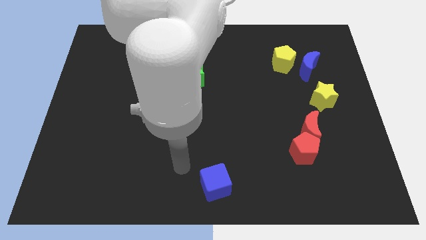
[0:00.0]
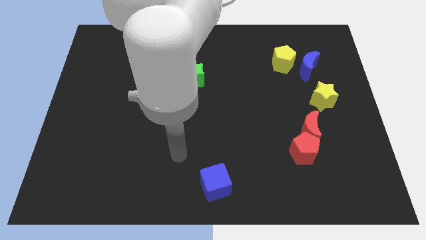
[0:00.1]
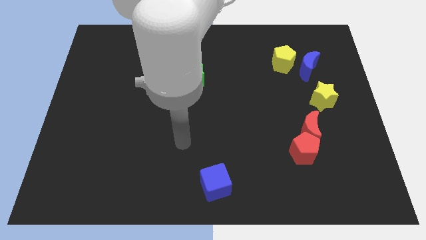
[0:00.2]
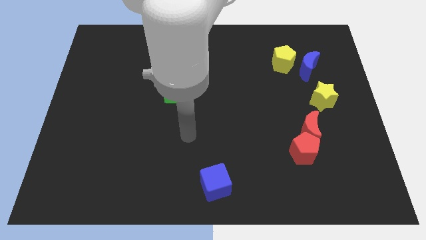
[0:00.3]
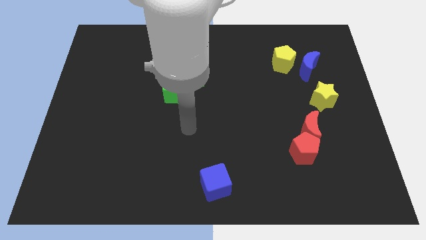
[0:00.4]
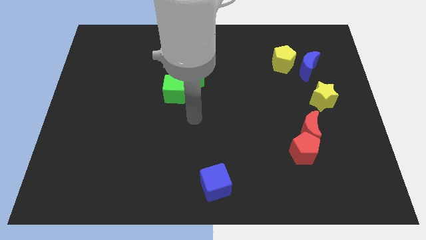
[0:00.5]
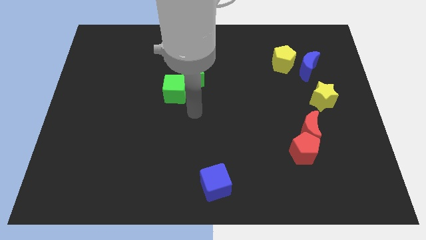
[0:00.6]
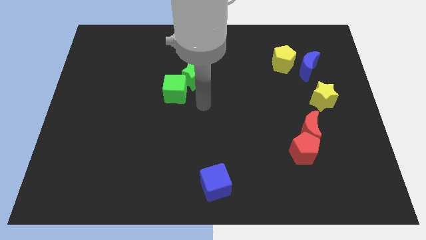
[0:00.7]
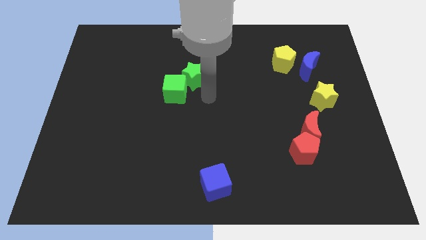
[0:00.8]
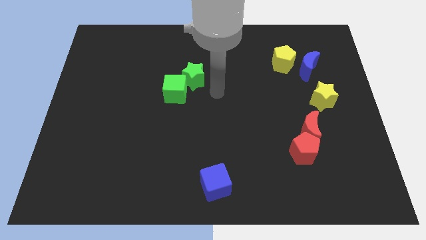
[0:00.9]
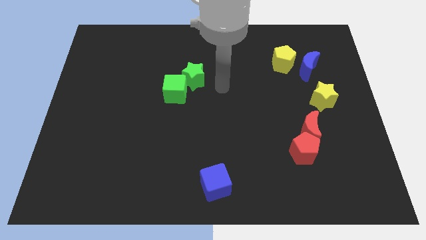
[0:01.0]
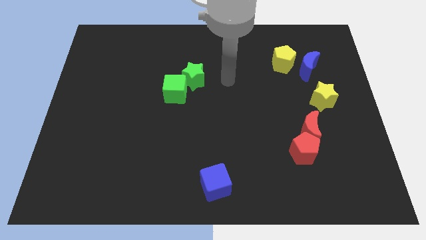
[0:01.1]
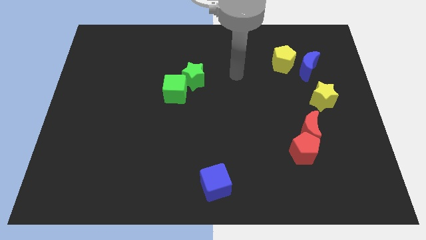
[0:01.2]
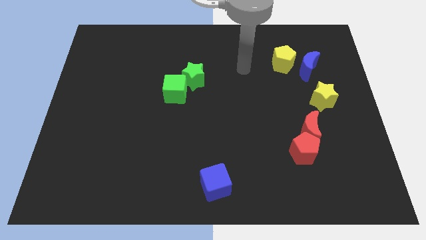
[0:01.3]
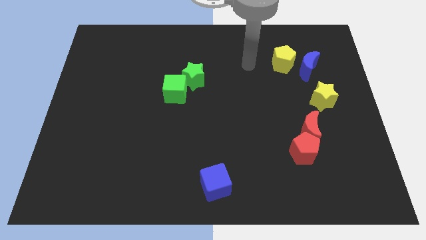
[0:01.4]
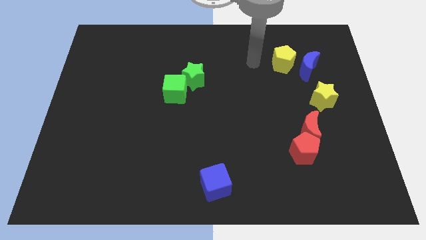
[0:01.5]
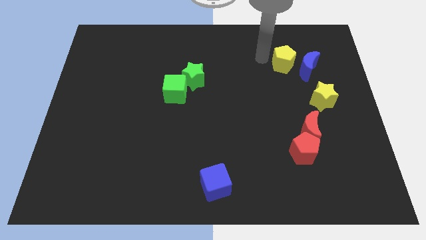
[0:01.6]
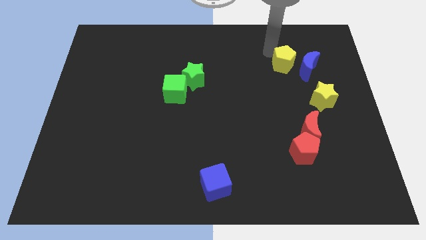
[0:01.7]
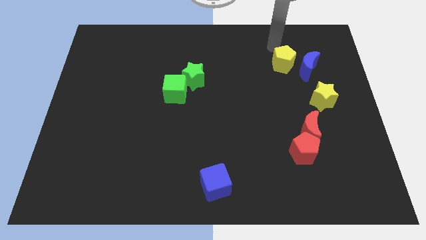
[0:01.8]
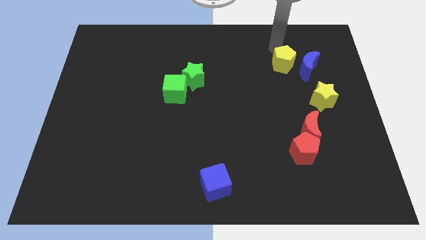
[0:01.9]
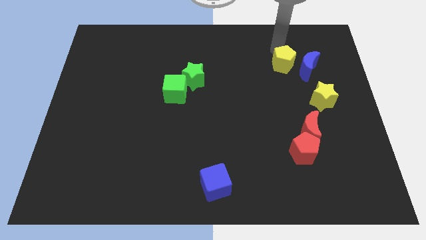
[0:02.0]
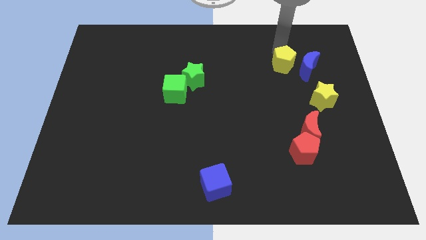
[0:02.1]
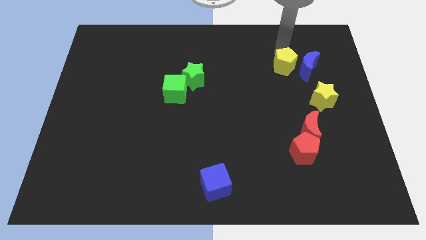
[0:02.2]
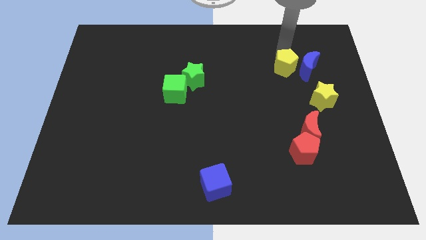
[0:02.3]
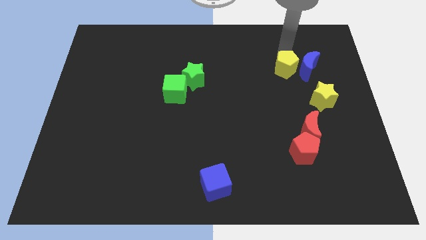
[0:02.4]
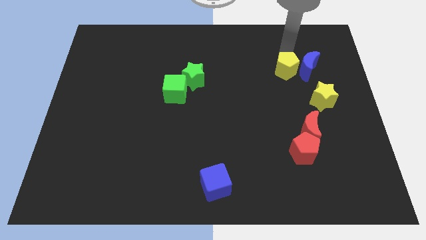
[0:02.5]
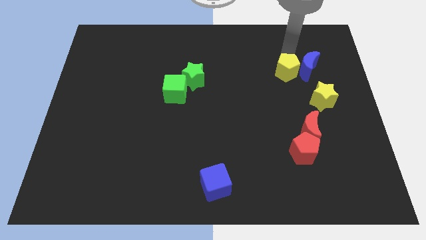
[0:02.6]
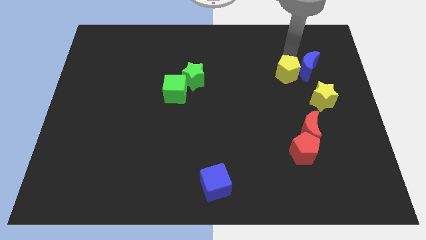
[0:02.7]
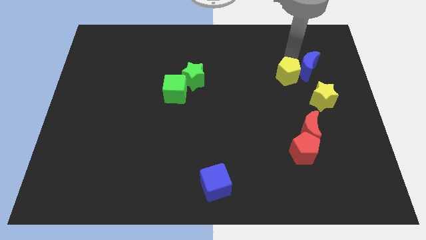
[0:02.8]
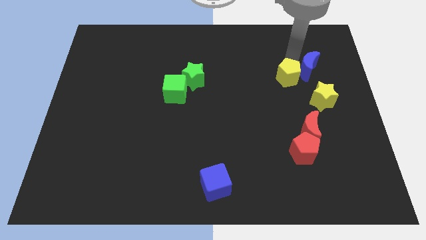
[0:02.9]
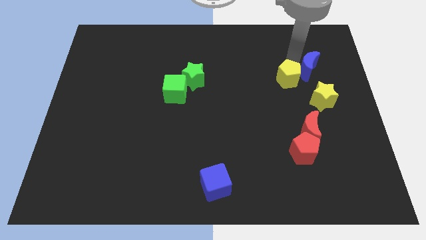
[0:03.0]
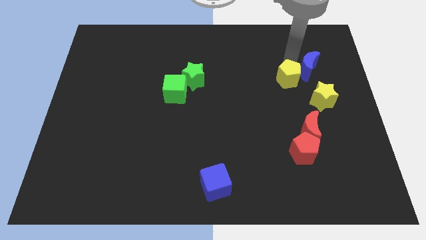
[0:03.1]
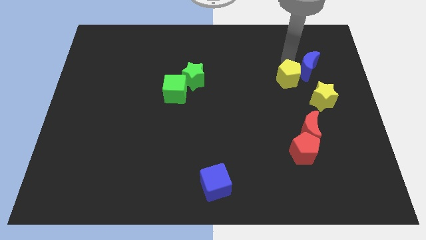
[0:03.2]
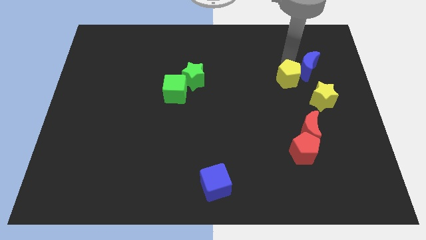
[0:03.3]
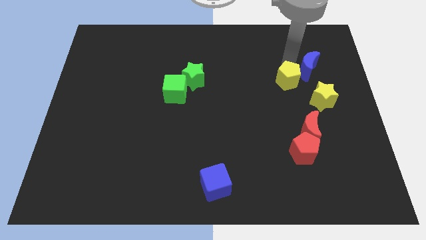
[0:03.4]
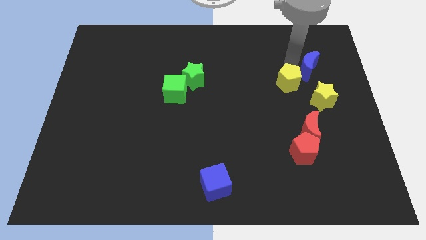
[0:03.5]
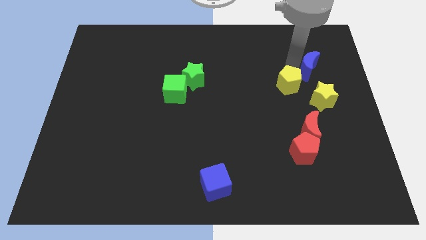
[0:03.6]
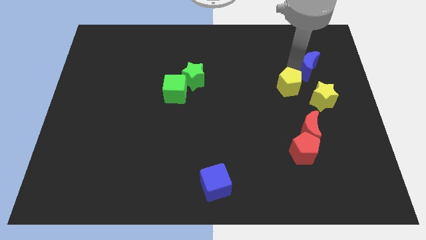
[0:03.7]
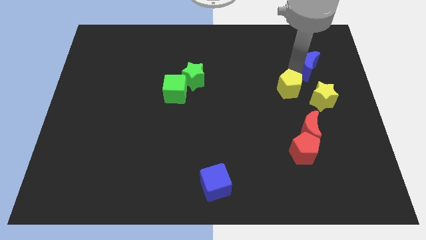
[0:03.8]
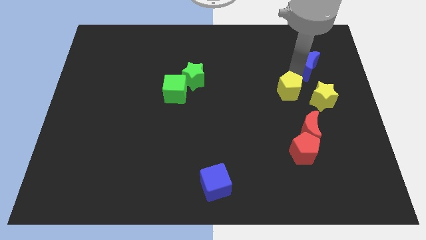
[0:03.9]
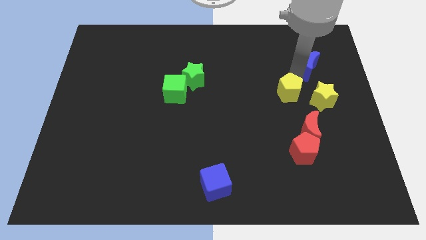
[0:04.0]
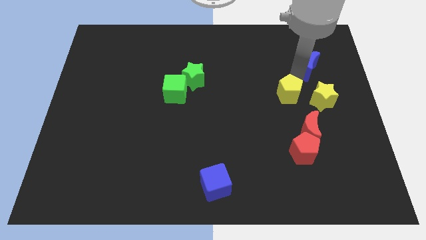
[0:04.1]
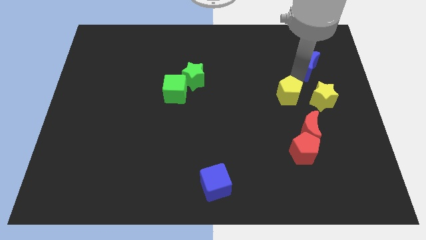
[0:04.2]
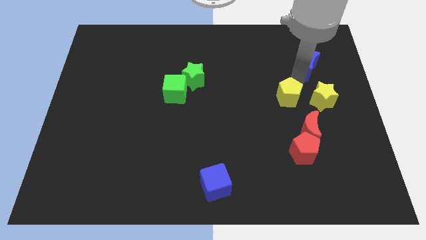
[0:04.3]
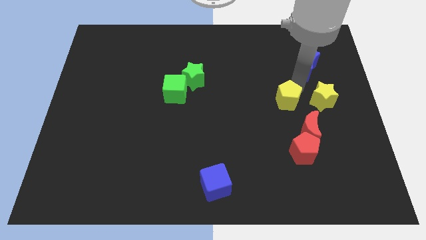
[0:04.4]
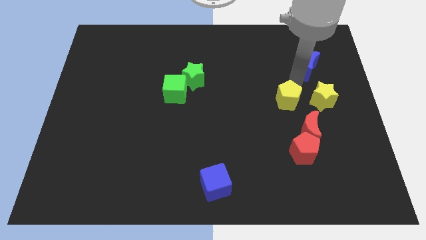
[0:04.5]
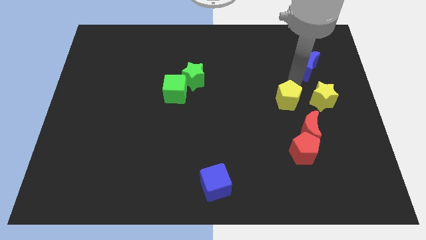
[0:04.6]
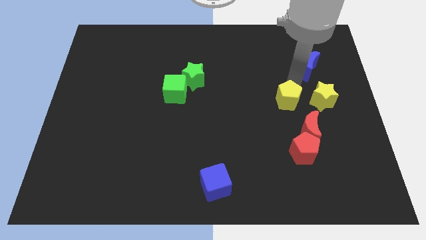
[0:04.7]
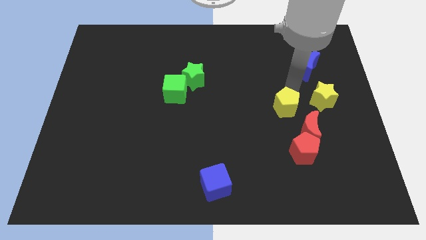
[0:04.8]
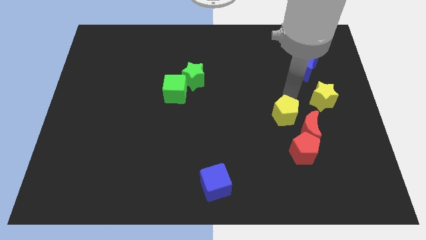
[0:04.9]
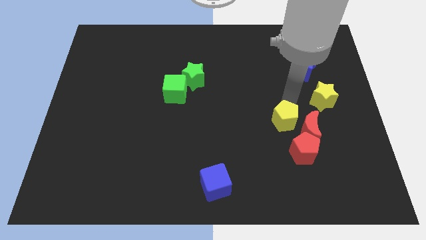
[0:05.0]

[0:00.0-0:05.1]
push the yellow pentagon to the top left side of the red pentagon

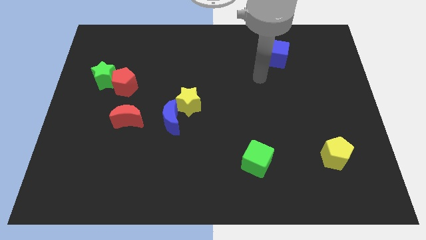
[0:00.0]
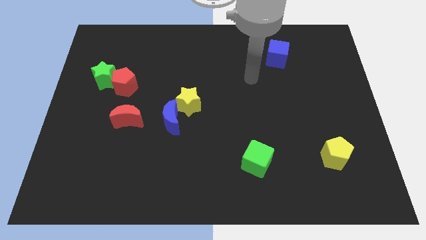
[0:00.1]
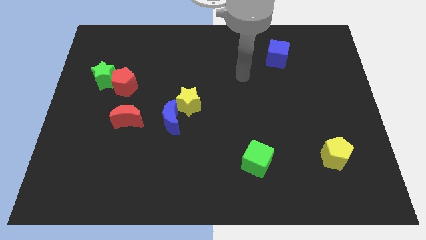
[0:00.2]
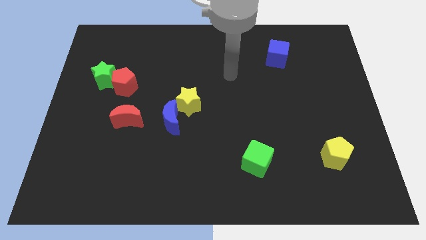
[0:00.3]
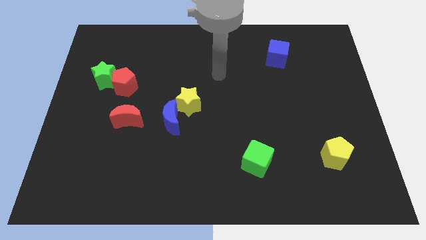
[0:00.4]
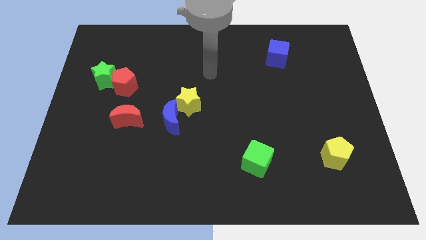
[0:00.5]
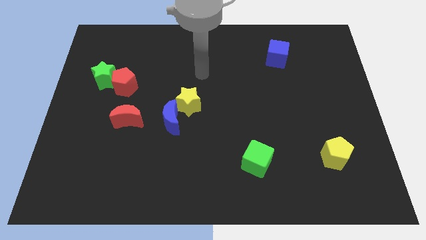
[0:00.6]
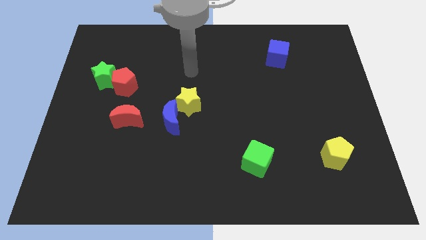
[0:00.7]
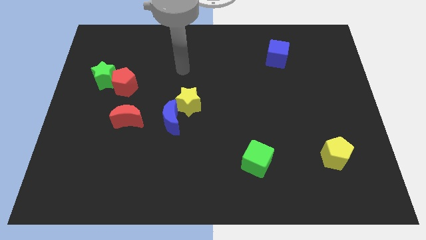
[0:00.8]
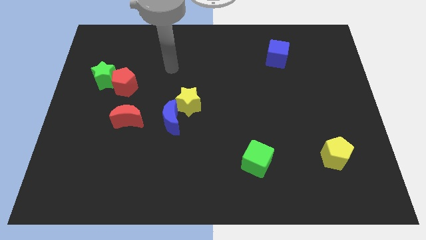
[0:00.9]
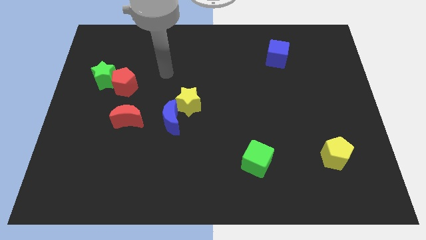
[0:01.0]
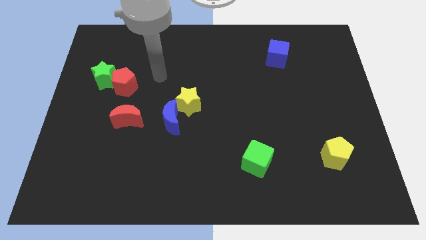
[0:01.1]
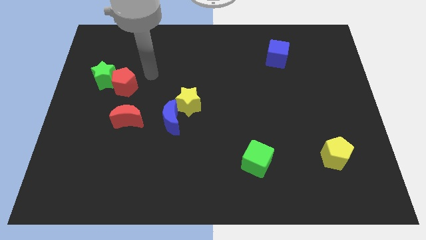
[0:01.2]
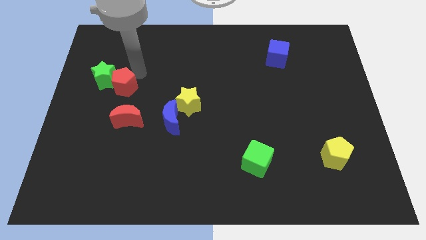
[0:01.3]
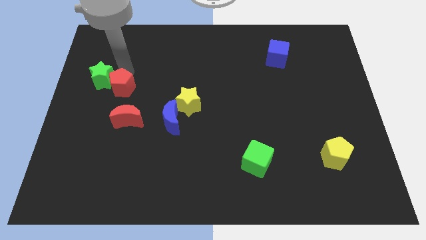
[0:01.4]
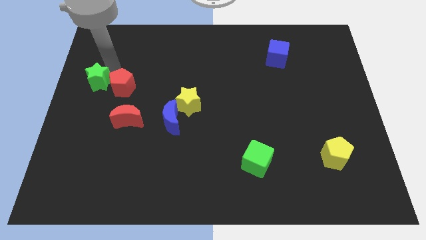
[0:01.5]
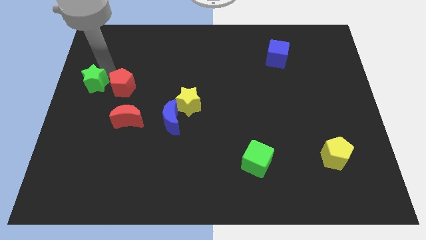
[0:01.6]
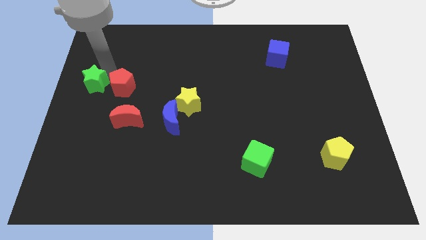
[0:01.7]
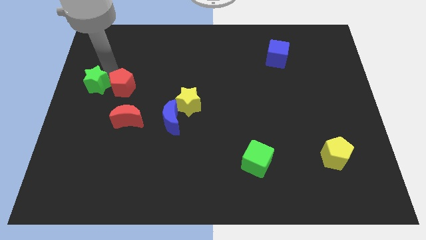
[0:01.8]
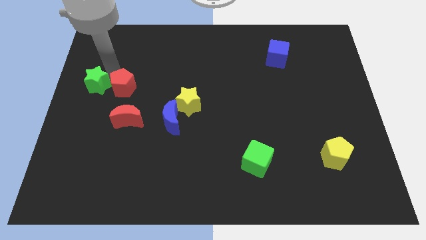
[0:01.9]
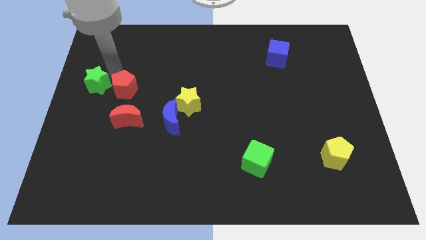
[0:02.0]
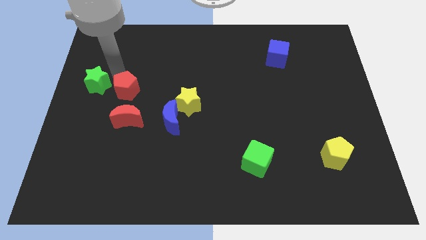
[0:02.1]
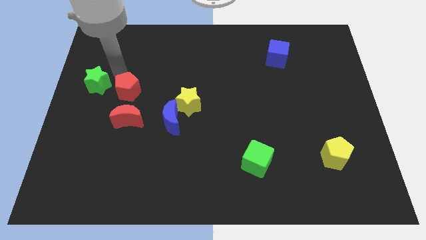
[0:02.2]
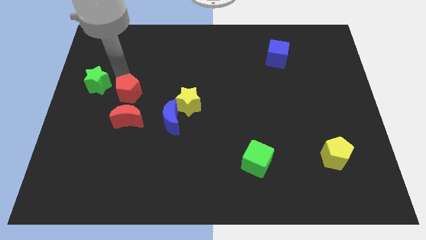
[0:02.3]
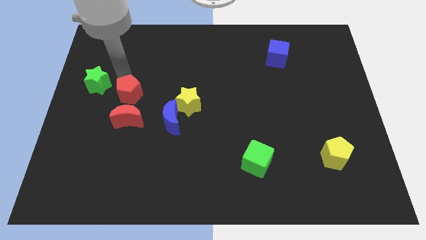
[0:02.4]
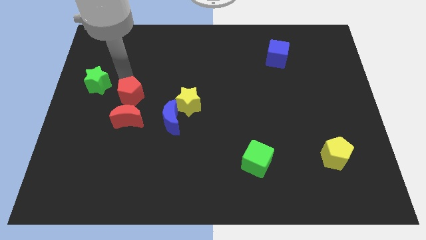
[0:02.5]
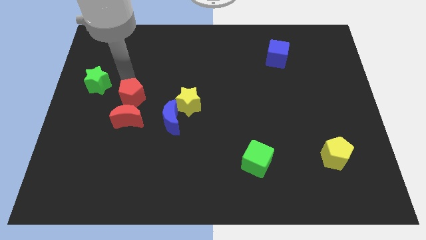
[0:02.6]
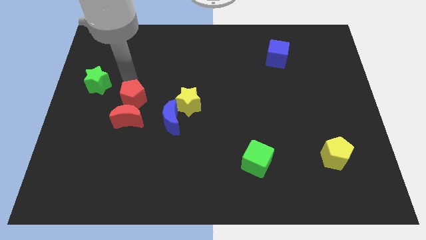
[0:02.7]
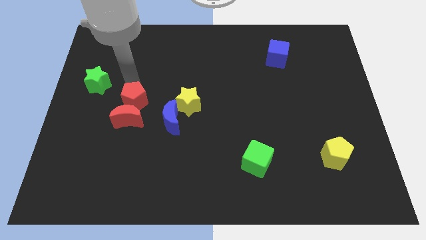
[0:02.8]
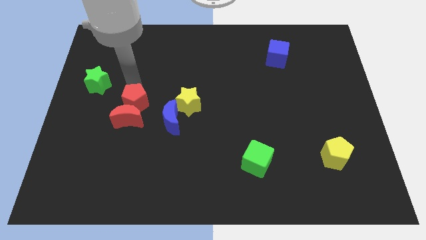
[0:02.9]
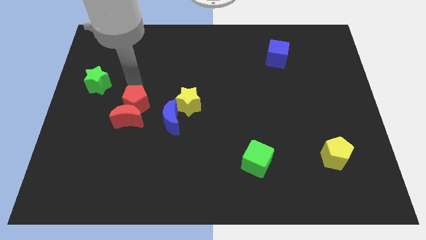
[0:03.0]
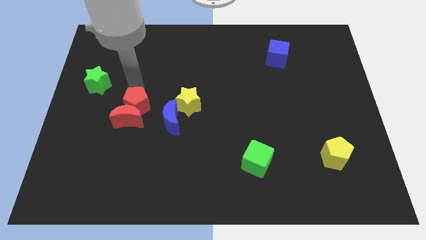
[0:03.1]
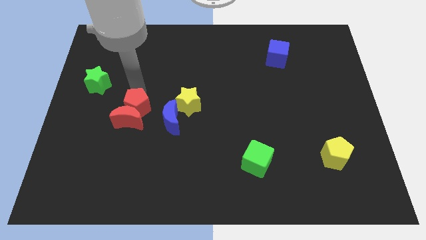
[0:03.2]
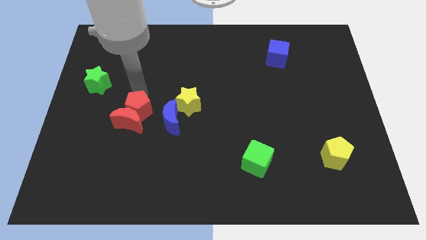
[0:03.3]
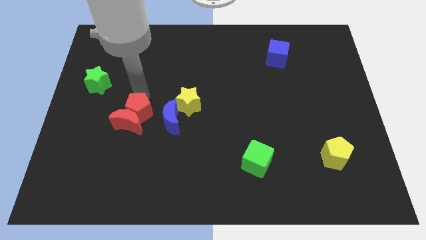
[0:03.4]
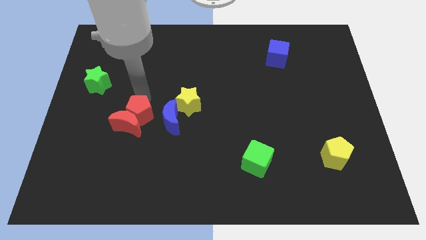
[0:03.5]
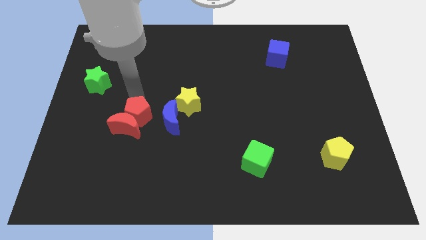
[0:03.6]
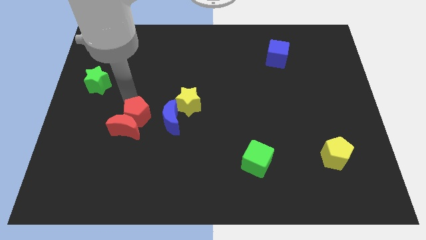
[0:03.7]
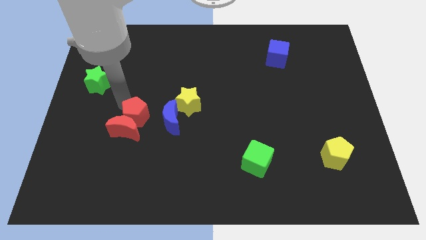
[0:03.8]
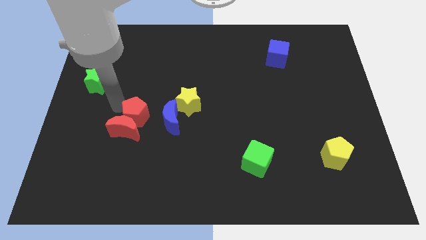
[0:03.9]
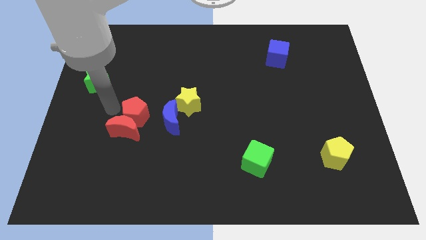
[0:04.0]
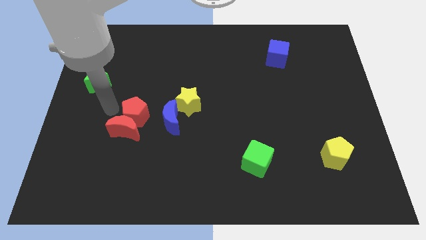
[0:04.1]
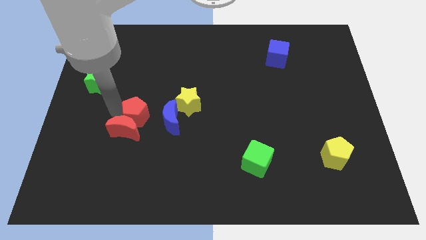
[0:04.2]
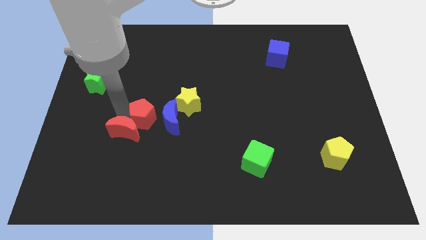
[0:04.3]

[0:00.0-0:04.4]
push the red pentagon to the bottom left of the yellow star
